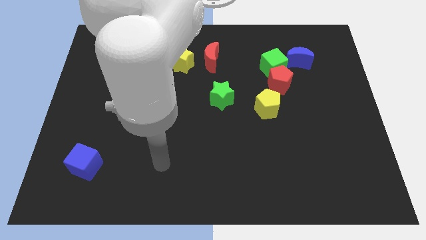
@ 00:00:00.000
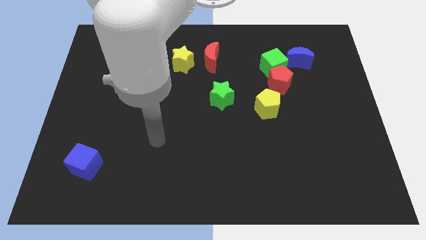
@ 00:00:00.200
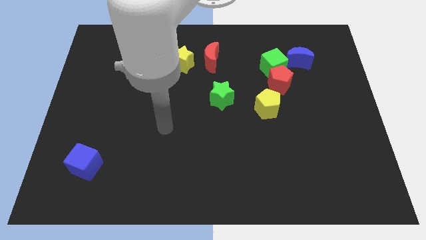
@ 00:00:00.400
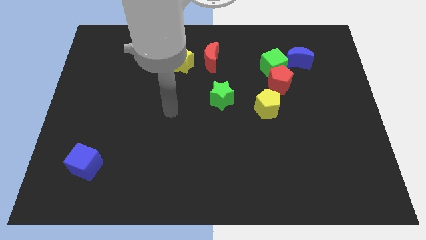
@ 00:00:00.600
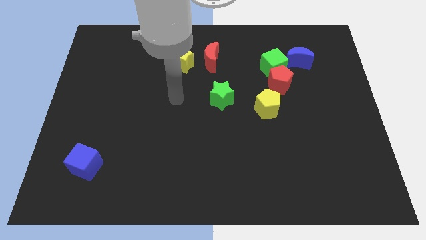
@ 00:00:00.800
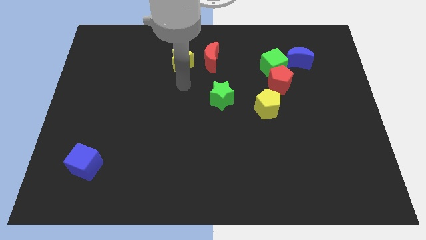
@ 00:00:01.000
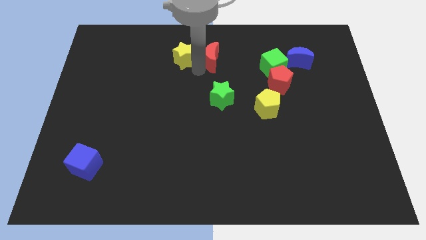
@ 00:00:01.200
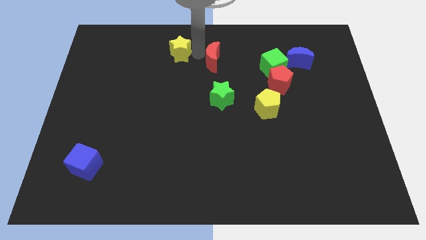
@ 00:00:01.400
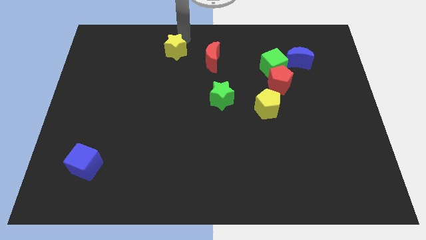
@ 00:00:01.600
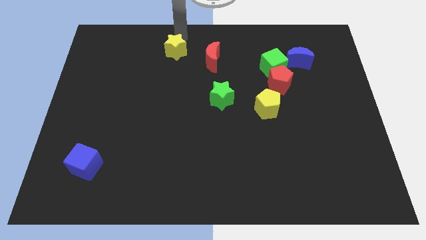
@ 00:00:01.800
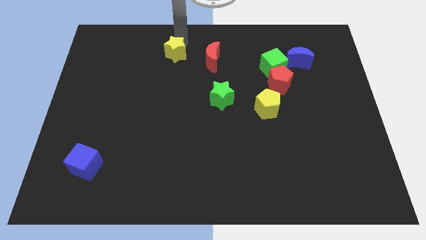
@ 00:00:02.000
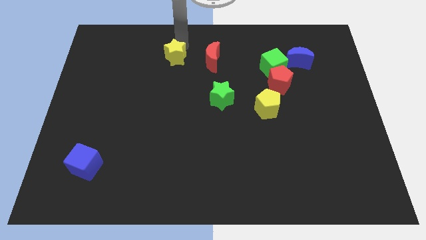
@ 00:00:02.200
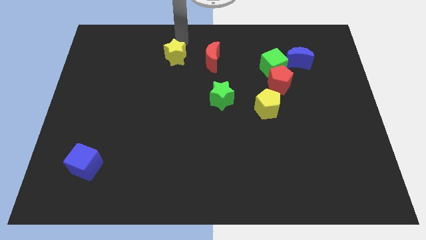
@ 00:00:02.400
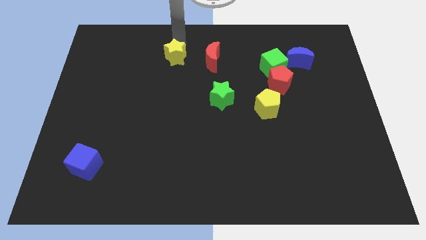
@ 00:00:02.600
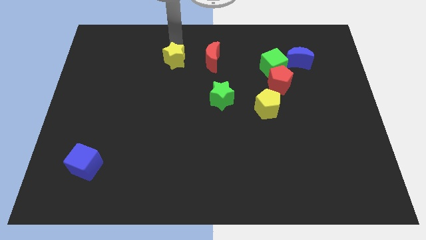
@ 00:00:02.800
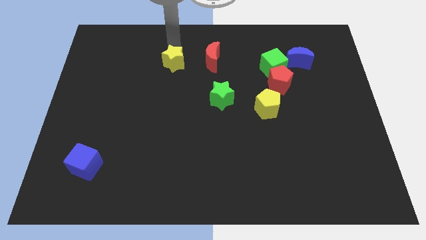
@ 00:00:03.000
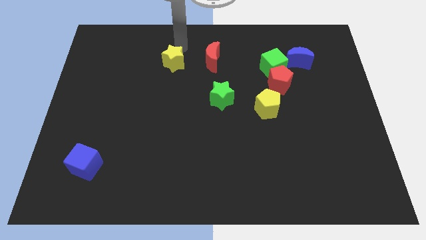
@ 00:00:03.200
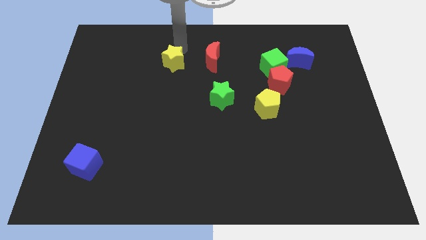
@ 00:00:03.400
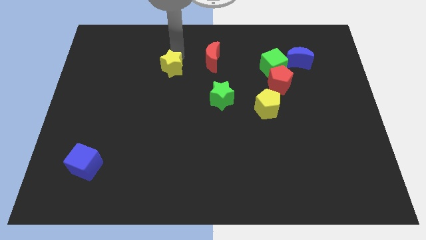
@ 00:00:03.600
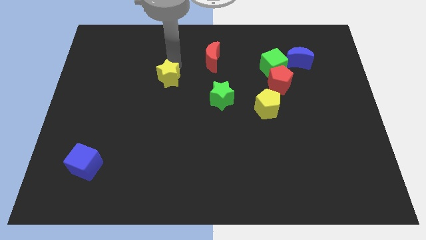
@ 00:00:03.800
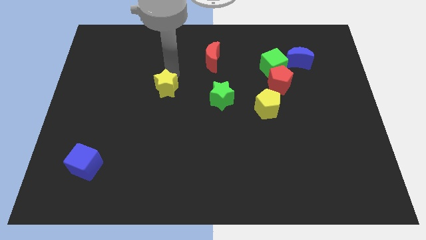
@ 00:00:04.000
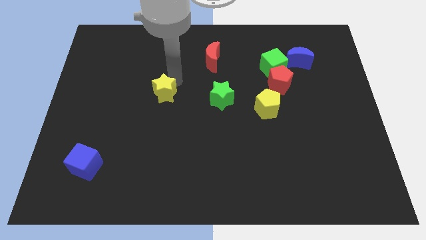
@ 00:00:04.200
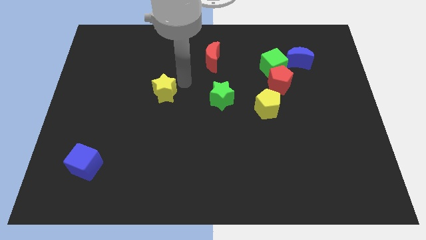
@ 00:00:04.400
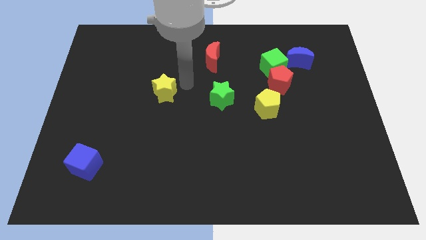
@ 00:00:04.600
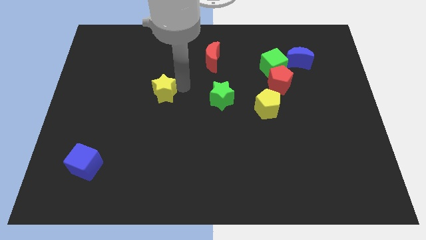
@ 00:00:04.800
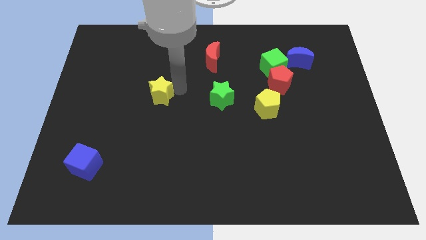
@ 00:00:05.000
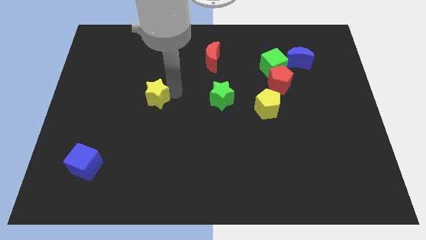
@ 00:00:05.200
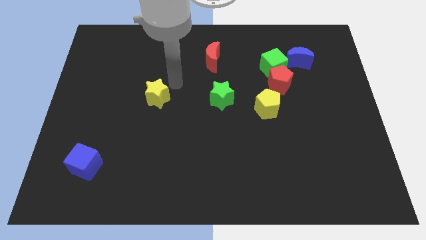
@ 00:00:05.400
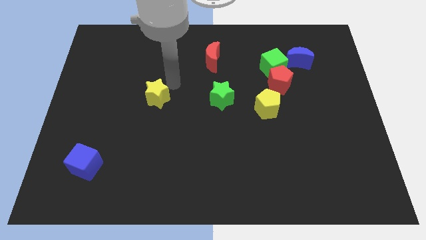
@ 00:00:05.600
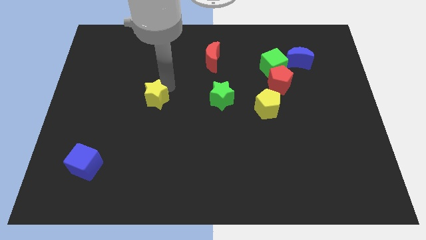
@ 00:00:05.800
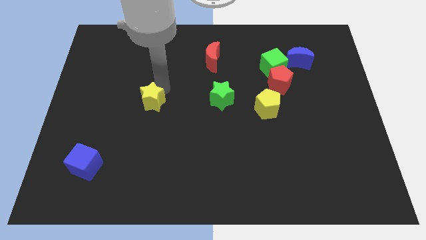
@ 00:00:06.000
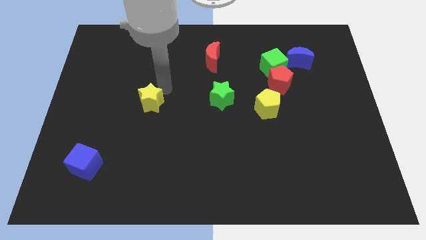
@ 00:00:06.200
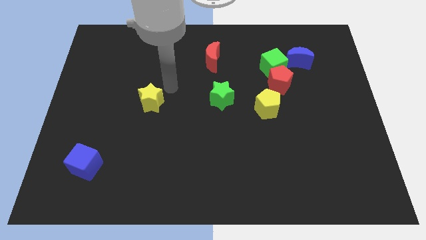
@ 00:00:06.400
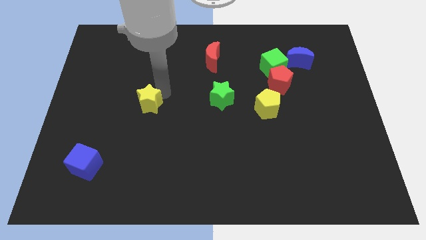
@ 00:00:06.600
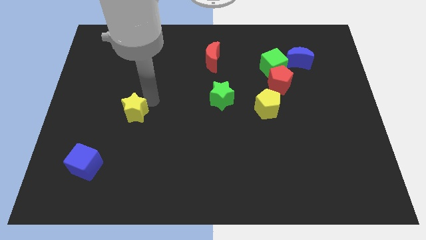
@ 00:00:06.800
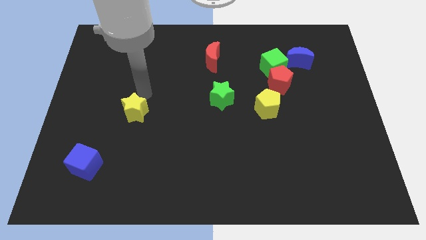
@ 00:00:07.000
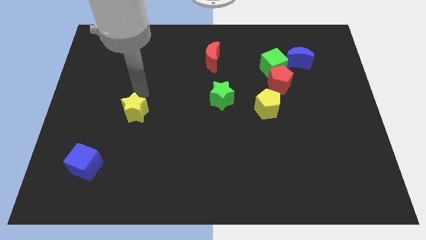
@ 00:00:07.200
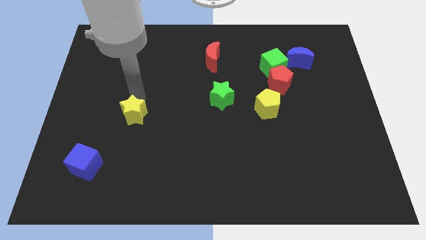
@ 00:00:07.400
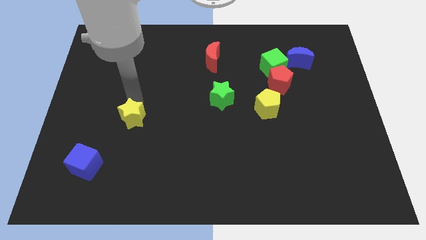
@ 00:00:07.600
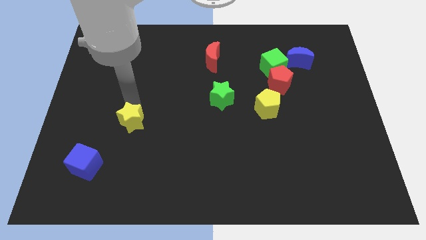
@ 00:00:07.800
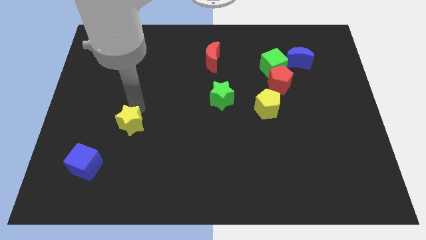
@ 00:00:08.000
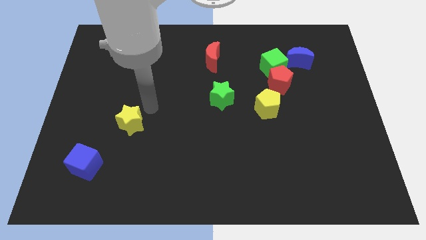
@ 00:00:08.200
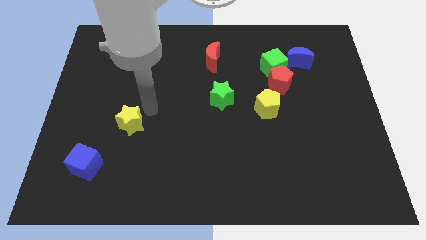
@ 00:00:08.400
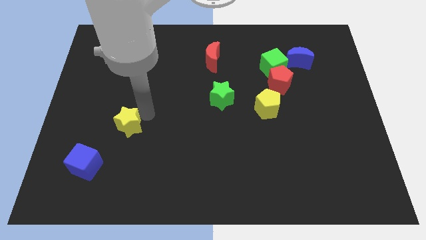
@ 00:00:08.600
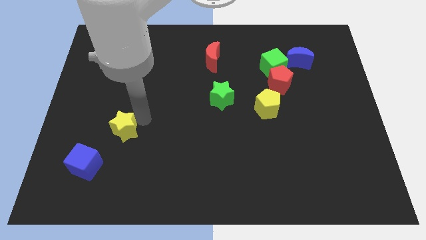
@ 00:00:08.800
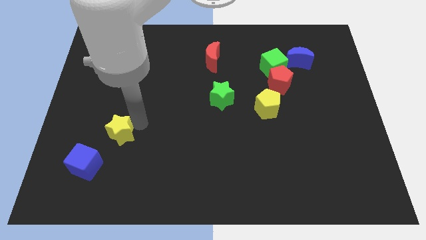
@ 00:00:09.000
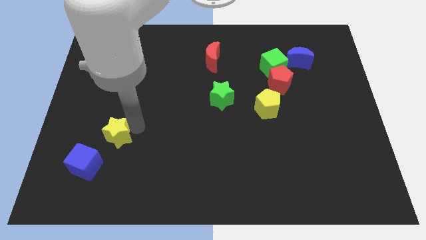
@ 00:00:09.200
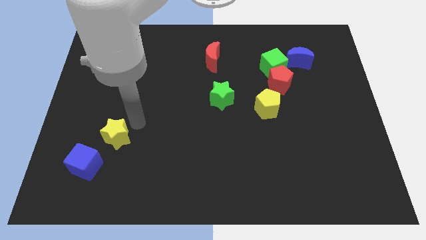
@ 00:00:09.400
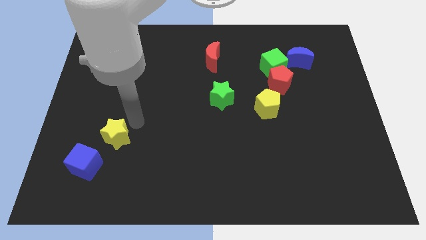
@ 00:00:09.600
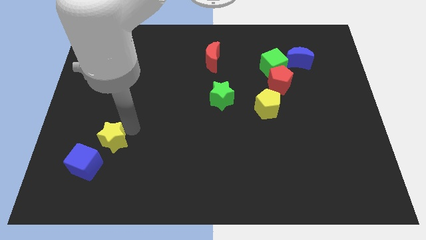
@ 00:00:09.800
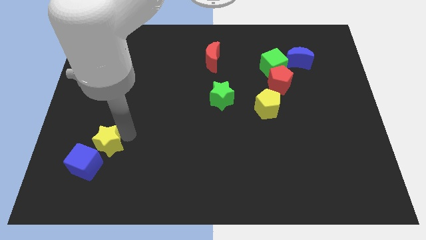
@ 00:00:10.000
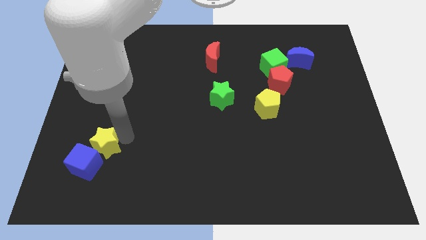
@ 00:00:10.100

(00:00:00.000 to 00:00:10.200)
push the yellow star towards the blue cube

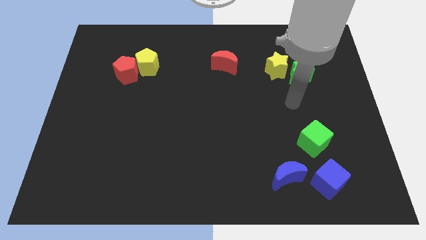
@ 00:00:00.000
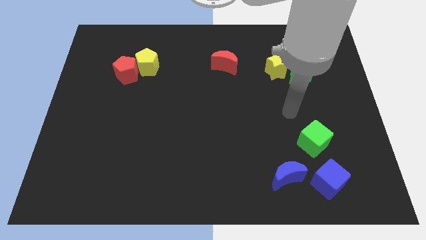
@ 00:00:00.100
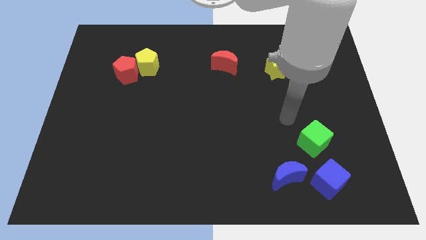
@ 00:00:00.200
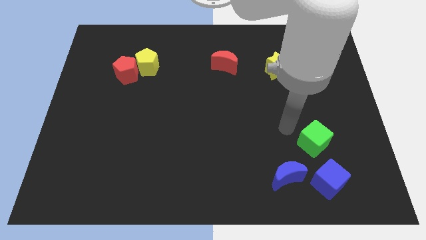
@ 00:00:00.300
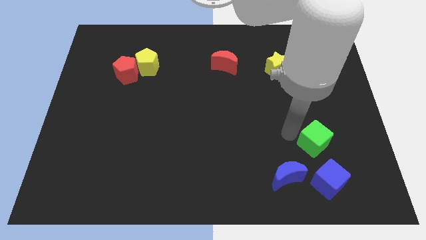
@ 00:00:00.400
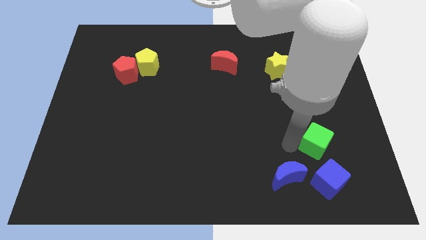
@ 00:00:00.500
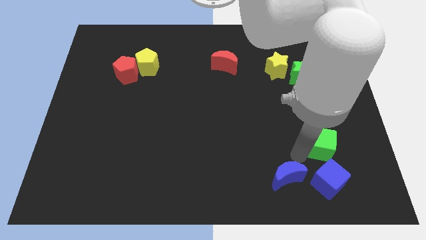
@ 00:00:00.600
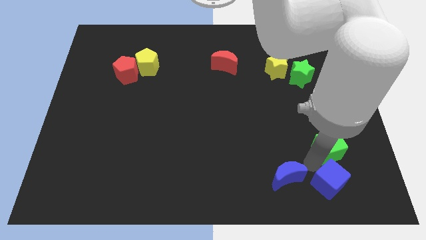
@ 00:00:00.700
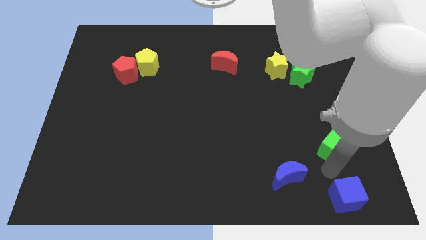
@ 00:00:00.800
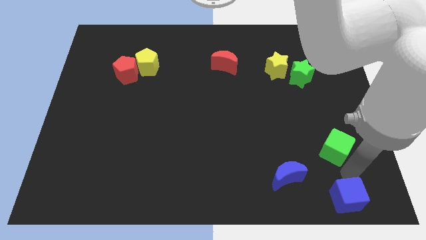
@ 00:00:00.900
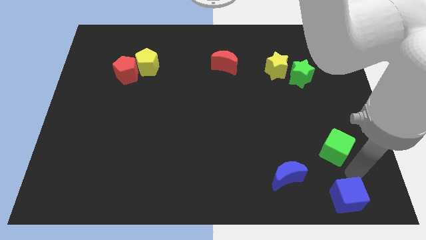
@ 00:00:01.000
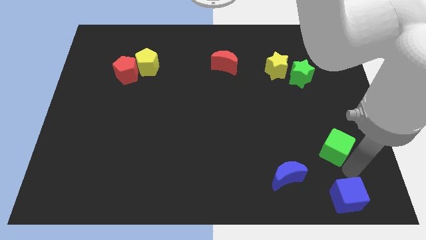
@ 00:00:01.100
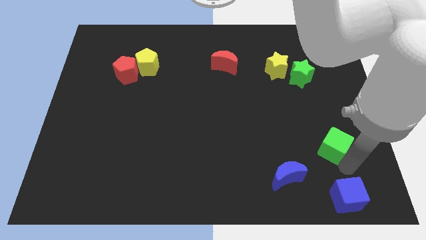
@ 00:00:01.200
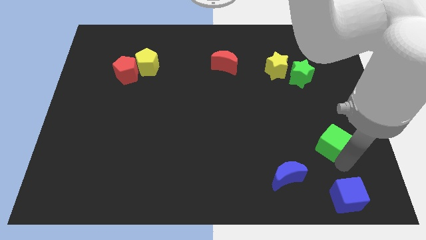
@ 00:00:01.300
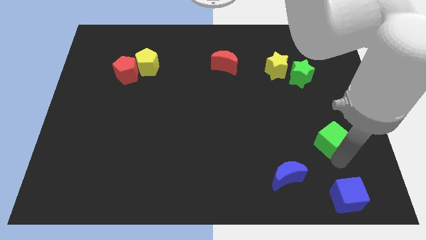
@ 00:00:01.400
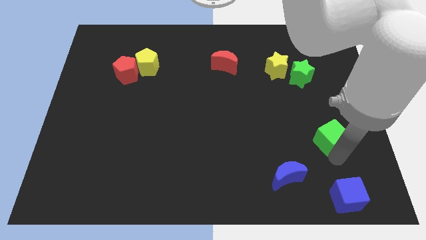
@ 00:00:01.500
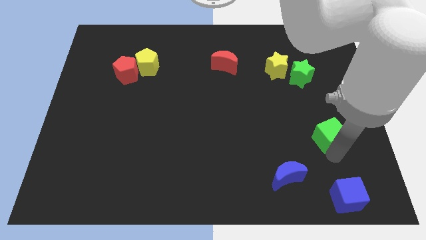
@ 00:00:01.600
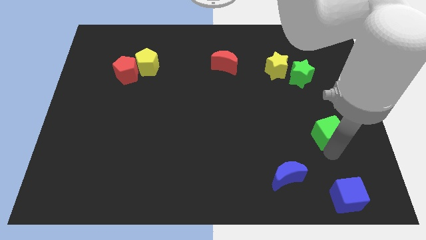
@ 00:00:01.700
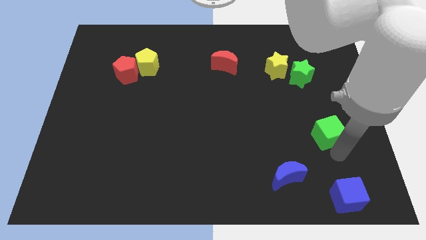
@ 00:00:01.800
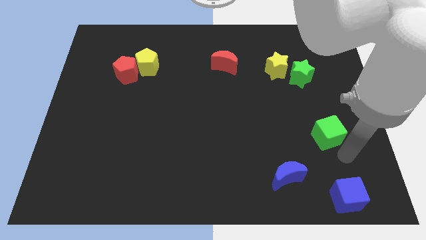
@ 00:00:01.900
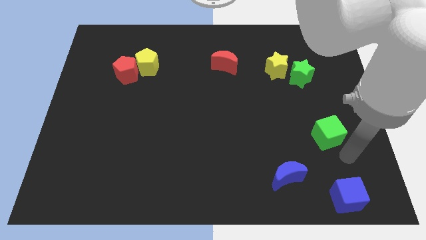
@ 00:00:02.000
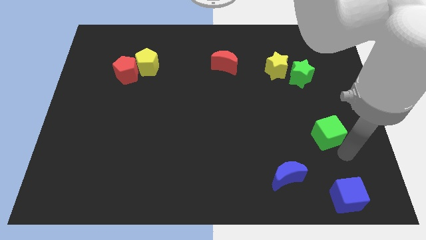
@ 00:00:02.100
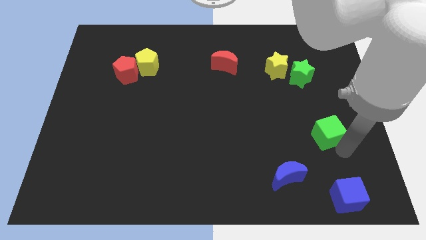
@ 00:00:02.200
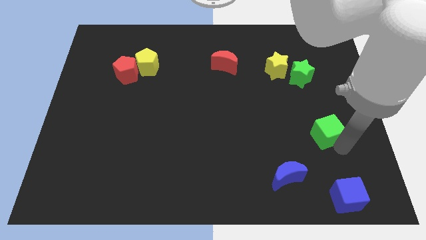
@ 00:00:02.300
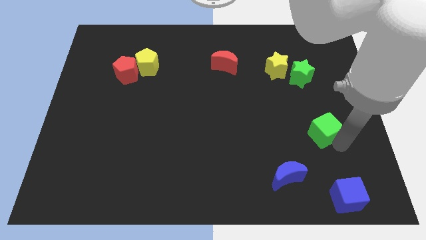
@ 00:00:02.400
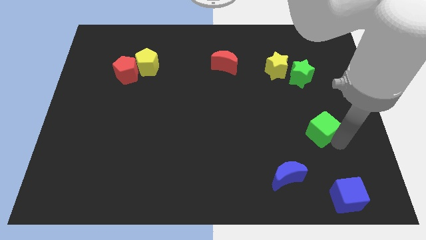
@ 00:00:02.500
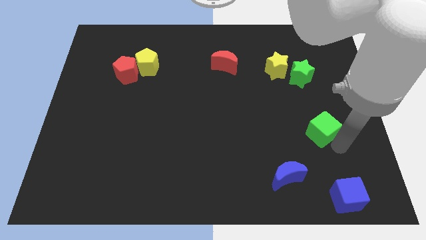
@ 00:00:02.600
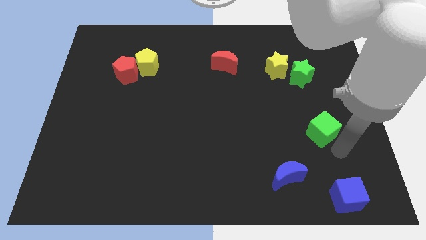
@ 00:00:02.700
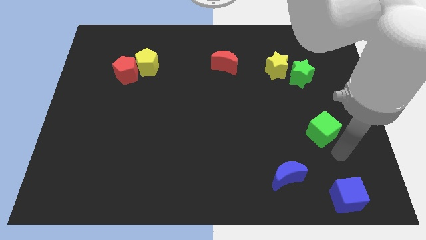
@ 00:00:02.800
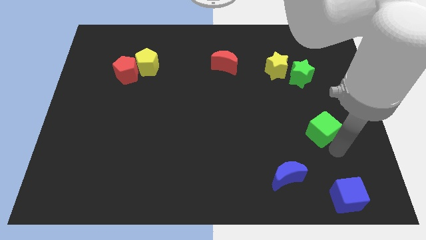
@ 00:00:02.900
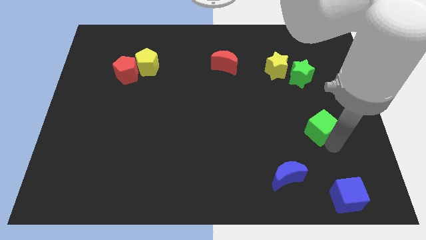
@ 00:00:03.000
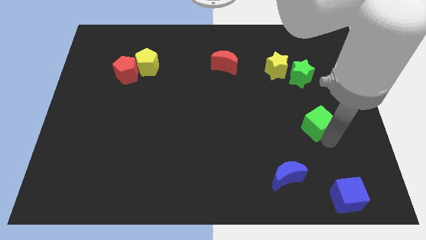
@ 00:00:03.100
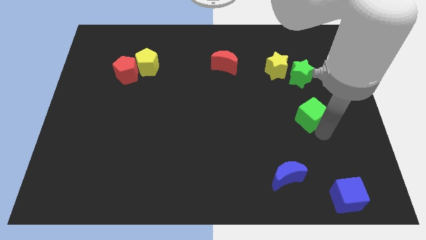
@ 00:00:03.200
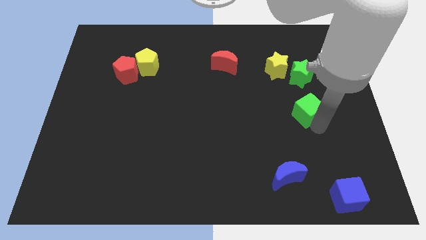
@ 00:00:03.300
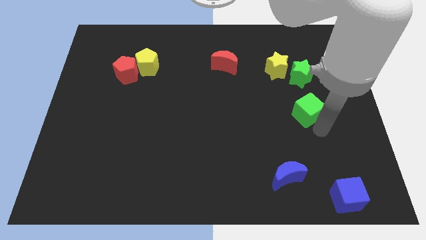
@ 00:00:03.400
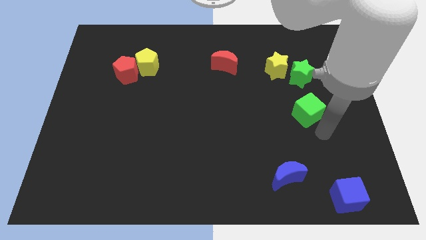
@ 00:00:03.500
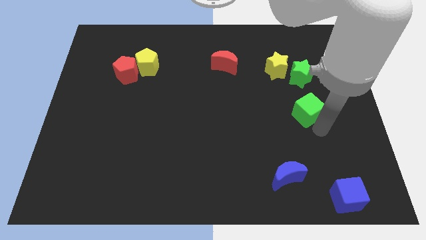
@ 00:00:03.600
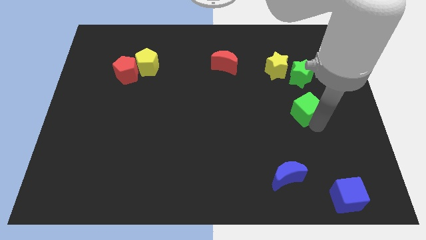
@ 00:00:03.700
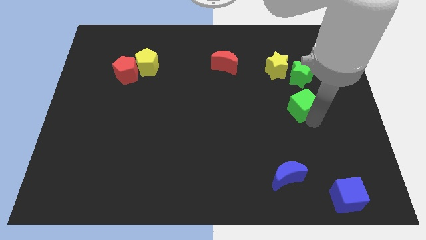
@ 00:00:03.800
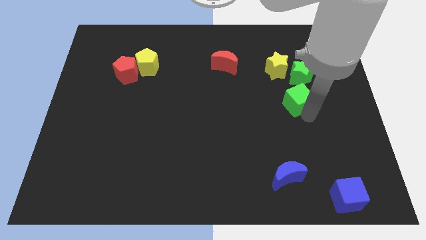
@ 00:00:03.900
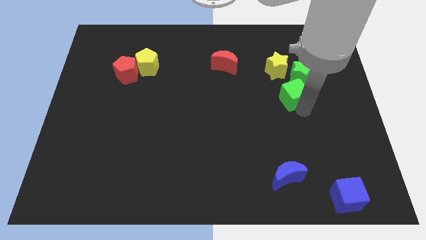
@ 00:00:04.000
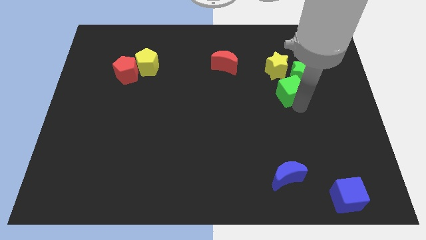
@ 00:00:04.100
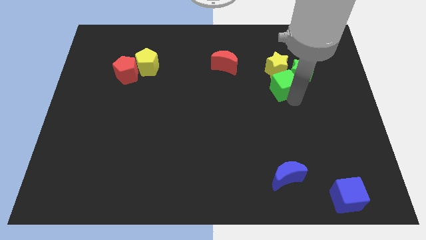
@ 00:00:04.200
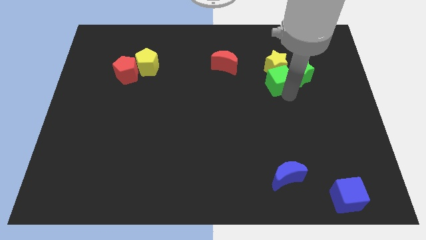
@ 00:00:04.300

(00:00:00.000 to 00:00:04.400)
put the green cube close to the yellow star
